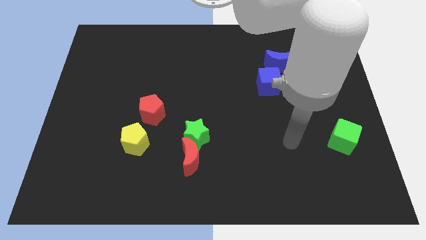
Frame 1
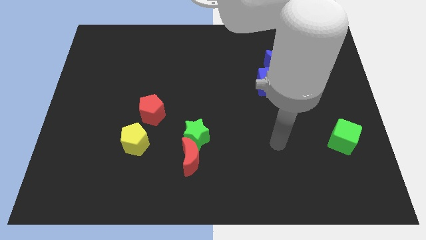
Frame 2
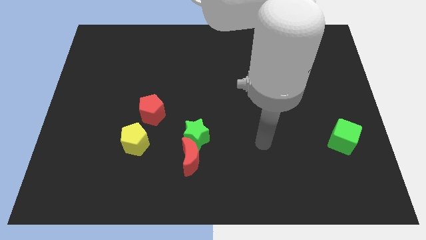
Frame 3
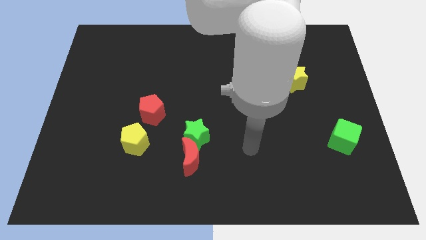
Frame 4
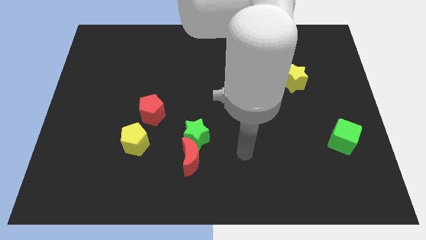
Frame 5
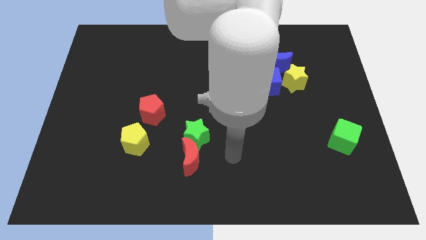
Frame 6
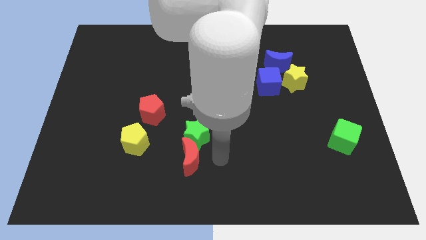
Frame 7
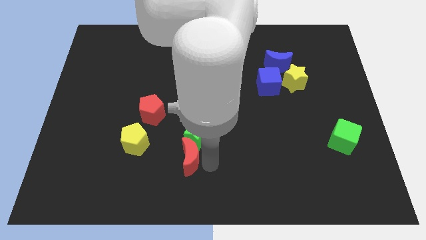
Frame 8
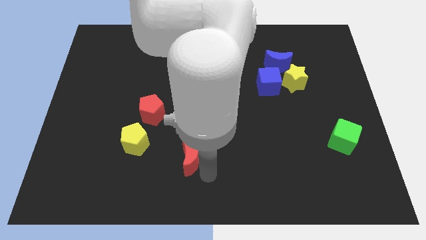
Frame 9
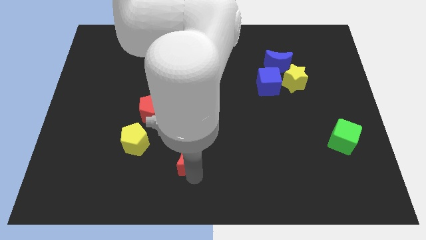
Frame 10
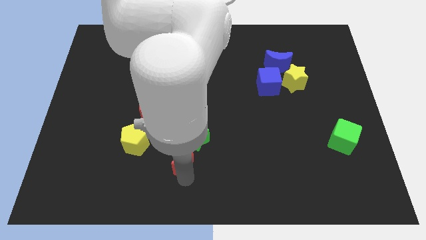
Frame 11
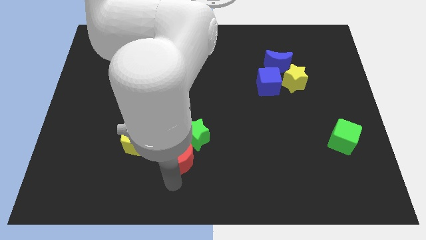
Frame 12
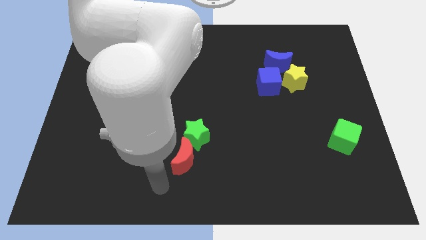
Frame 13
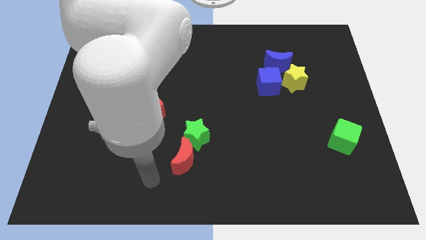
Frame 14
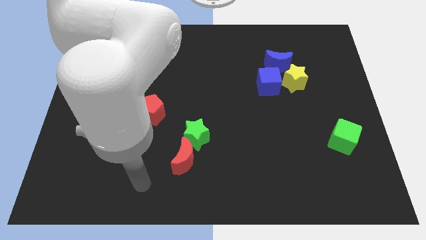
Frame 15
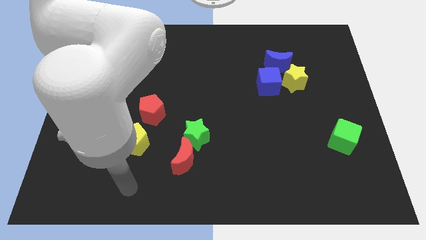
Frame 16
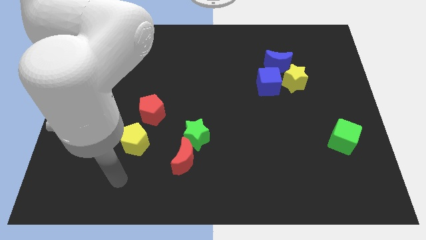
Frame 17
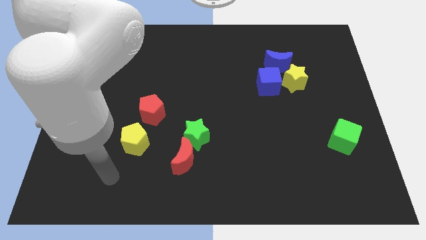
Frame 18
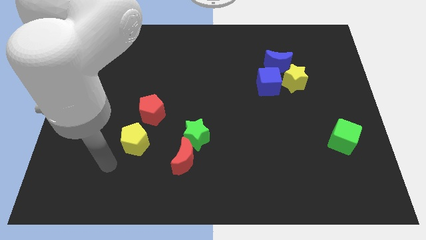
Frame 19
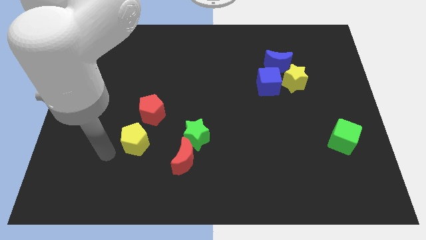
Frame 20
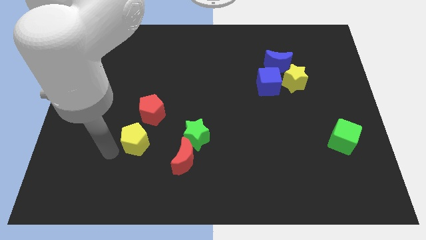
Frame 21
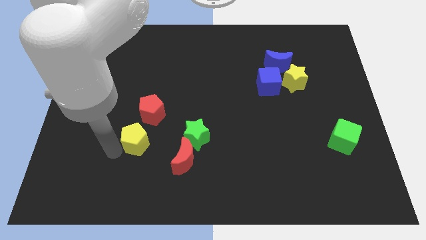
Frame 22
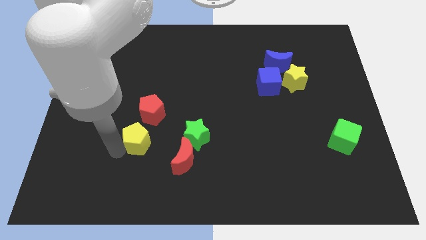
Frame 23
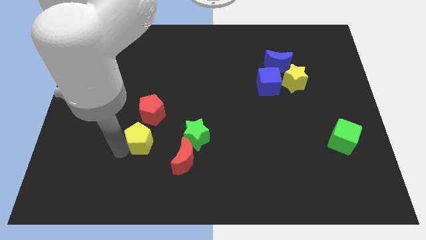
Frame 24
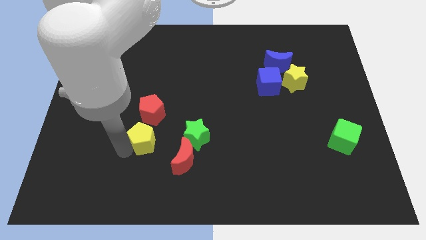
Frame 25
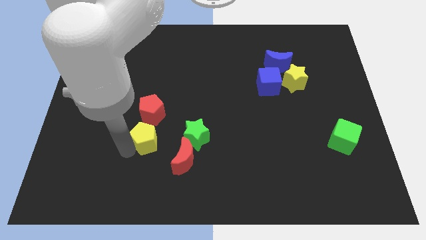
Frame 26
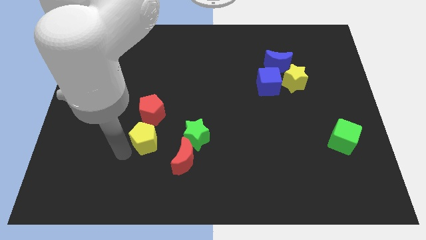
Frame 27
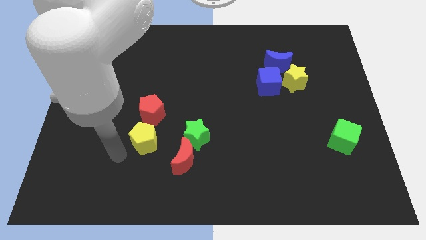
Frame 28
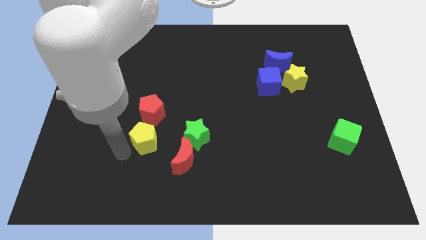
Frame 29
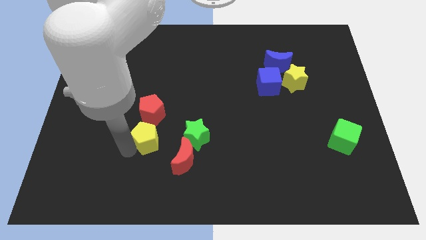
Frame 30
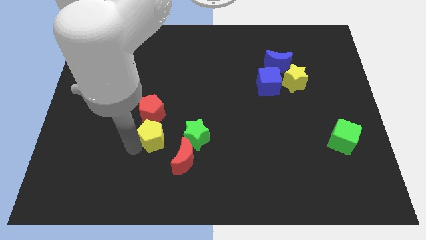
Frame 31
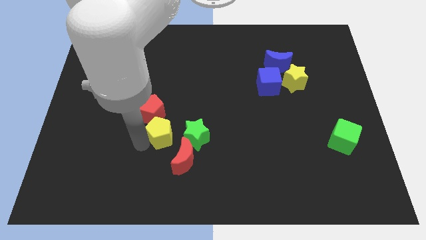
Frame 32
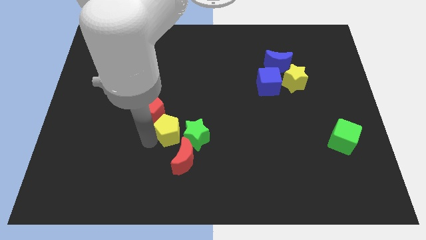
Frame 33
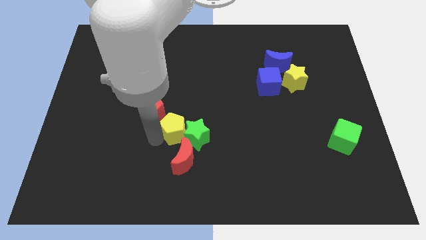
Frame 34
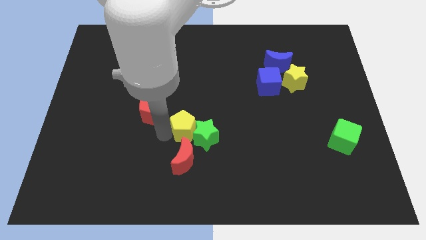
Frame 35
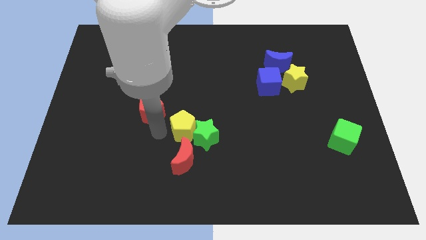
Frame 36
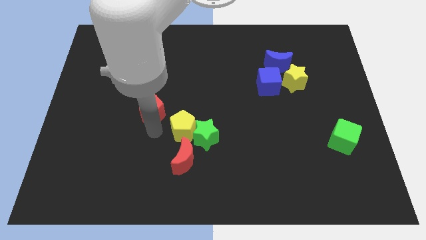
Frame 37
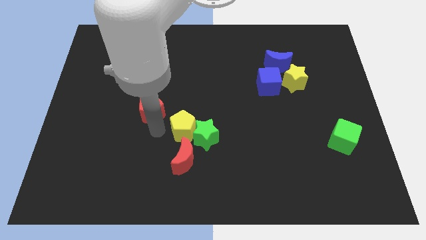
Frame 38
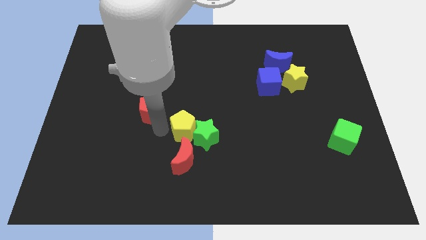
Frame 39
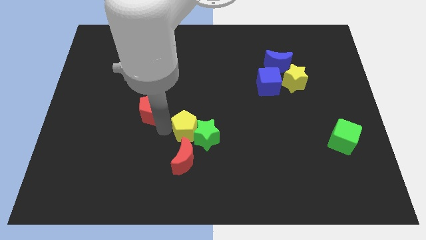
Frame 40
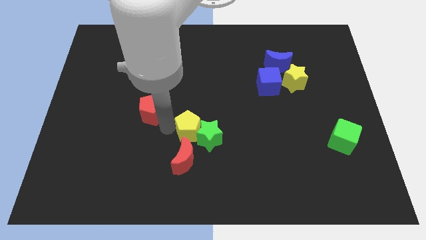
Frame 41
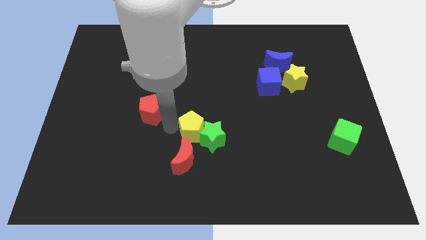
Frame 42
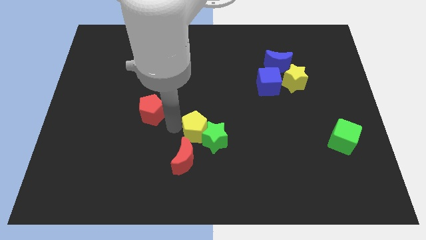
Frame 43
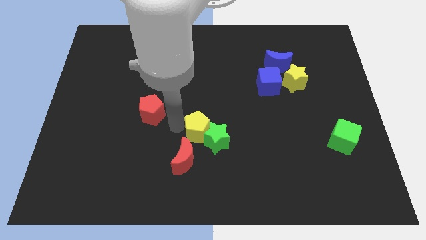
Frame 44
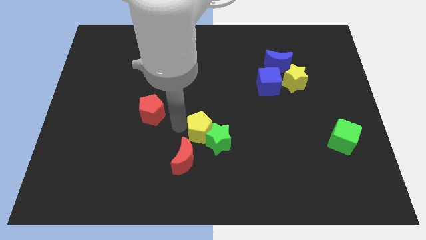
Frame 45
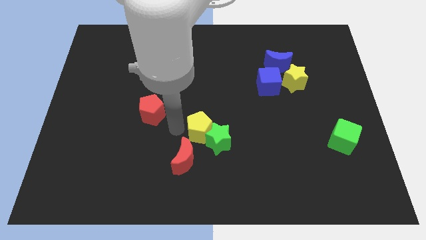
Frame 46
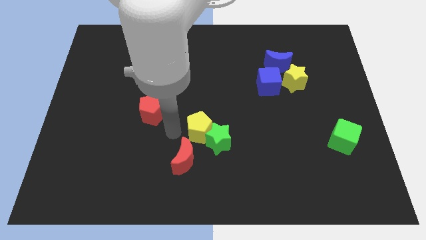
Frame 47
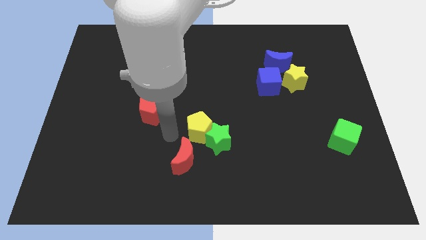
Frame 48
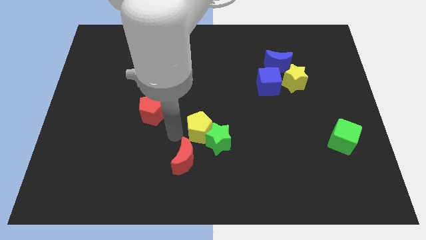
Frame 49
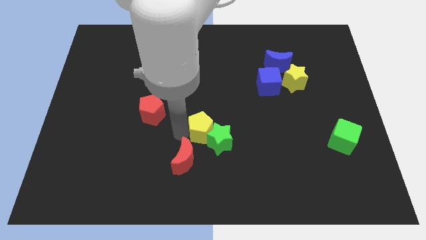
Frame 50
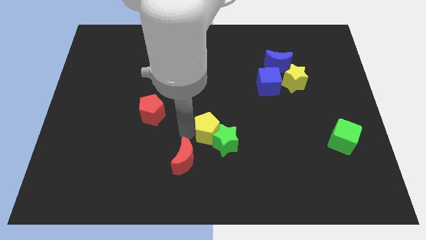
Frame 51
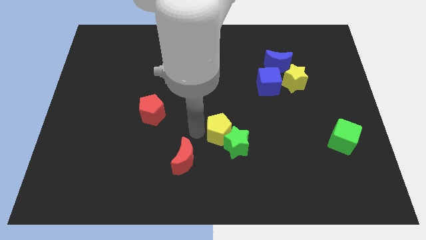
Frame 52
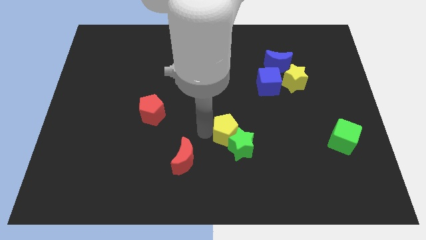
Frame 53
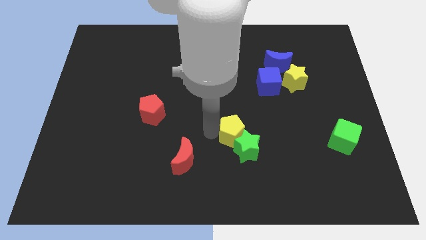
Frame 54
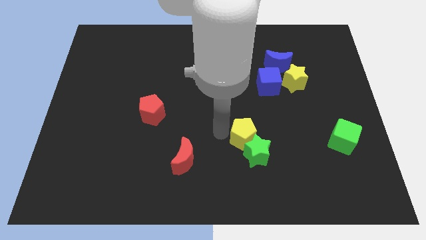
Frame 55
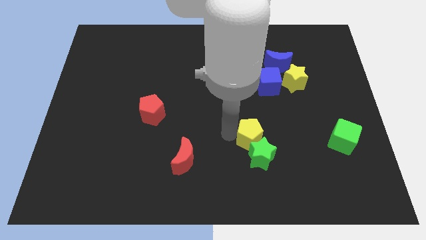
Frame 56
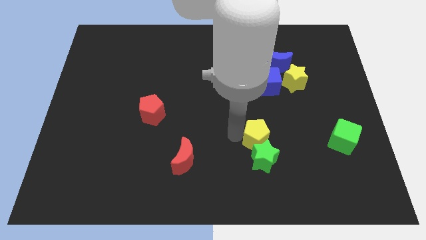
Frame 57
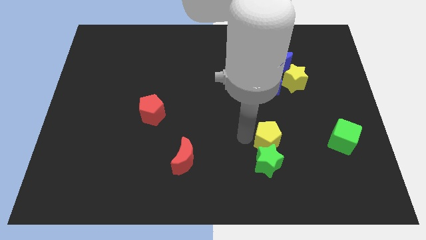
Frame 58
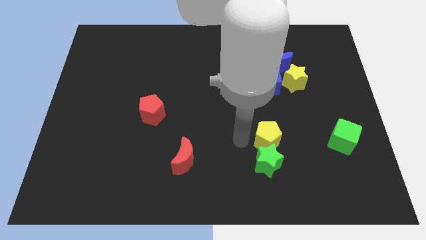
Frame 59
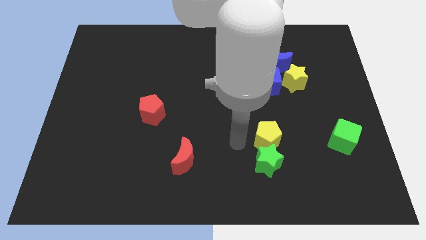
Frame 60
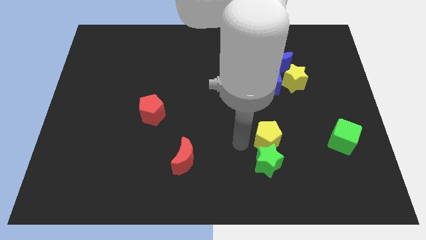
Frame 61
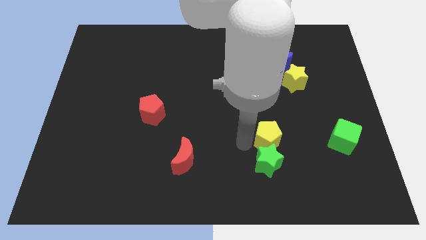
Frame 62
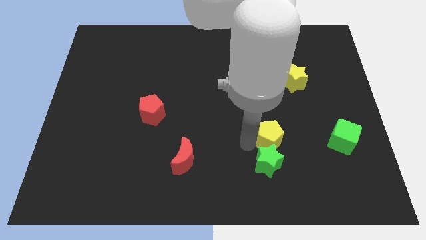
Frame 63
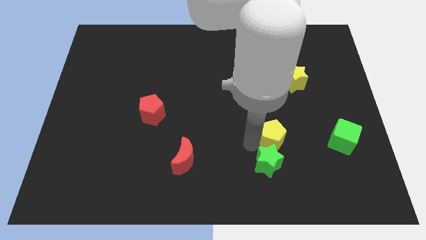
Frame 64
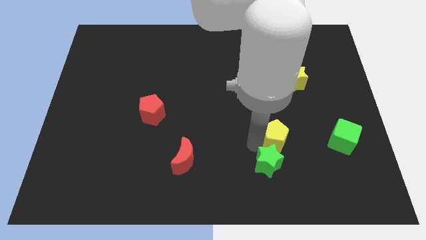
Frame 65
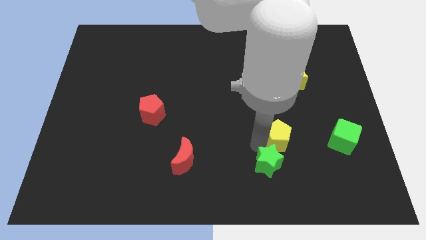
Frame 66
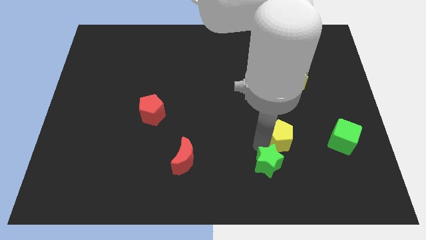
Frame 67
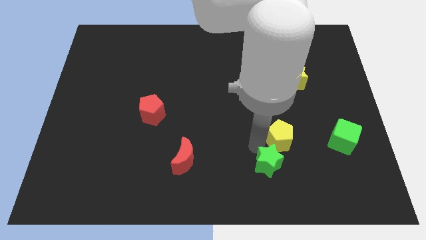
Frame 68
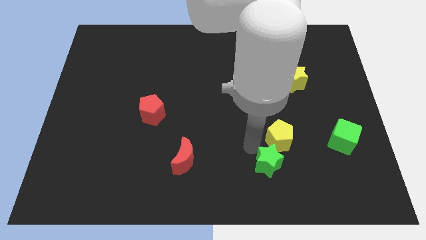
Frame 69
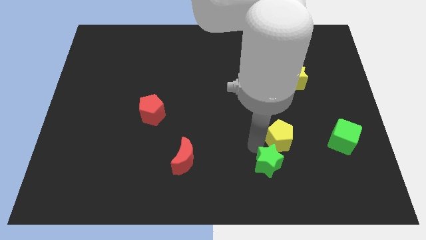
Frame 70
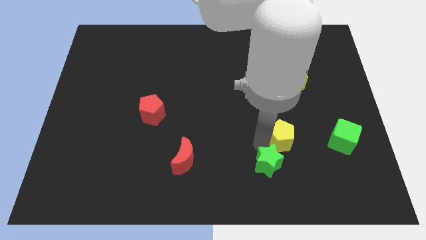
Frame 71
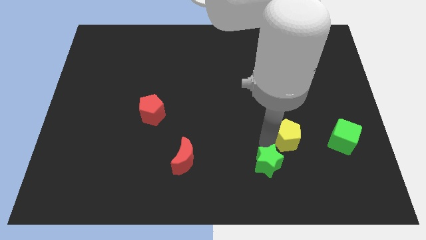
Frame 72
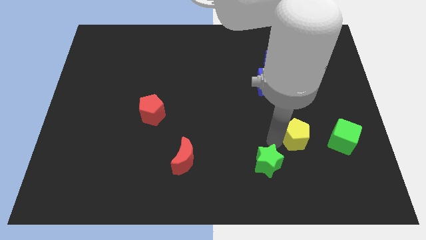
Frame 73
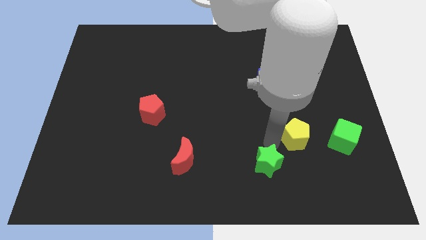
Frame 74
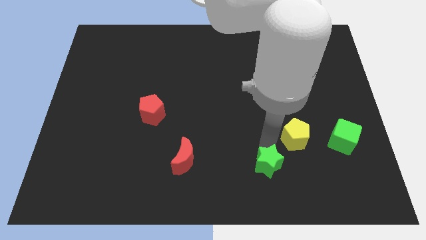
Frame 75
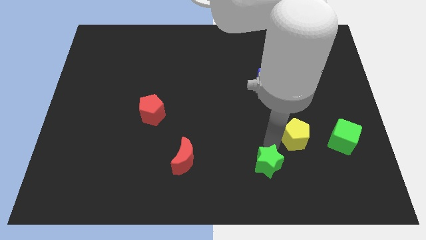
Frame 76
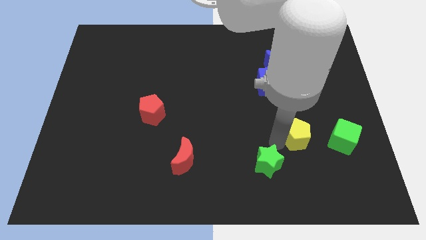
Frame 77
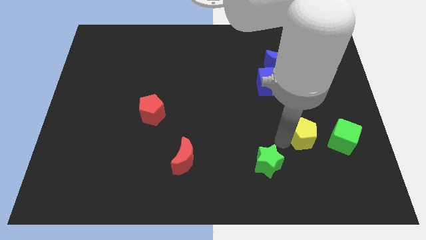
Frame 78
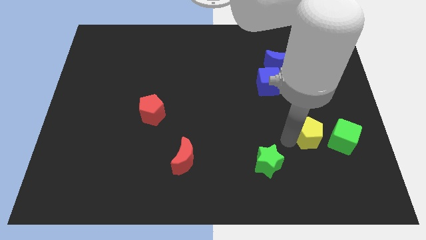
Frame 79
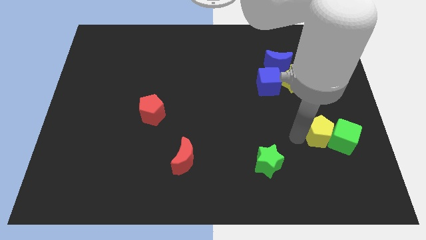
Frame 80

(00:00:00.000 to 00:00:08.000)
slide the yellow pentagon towards the green cube
